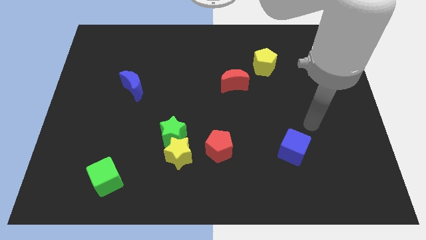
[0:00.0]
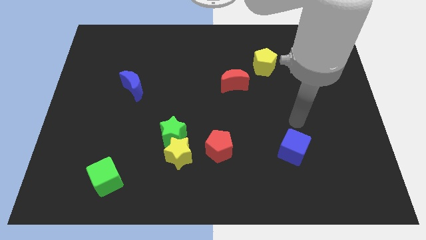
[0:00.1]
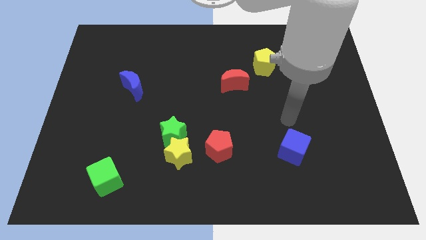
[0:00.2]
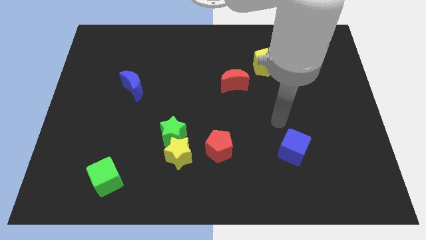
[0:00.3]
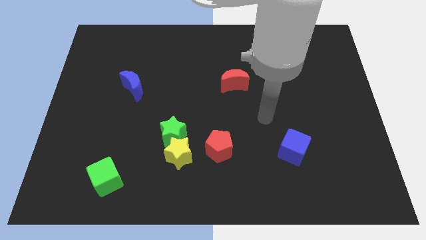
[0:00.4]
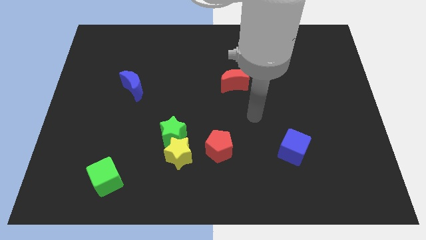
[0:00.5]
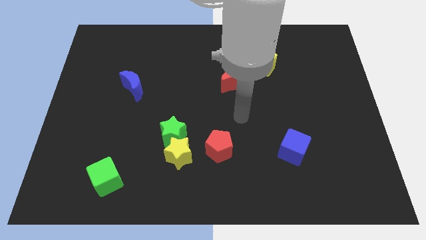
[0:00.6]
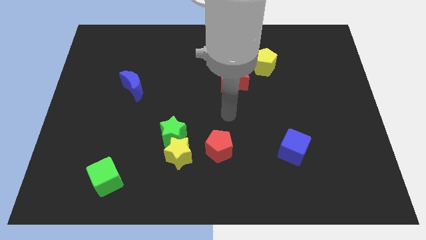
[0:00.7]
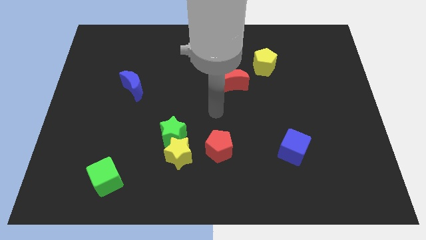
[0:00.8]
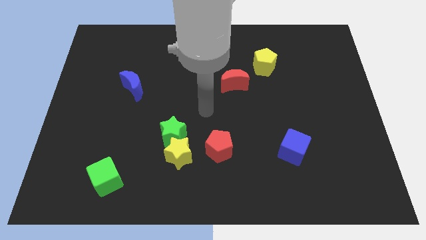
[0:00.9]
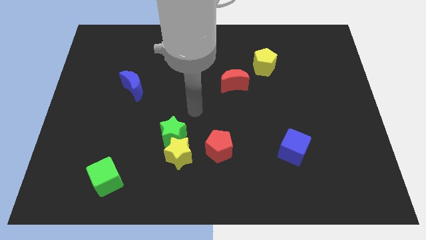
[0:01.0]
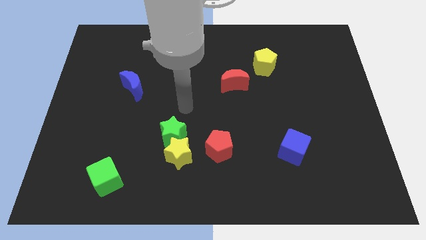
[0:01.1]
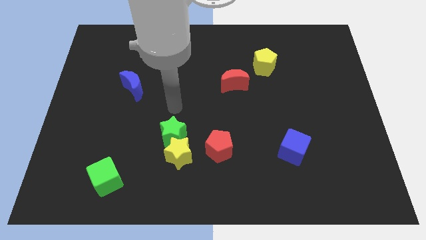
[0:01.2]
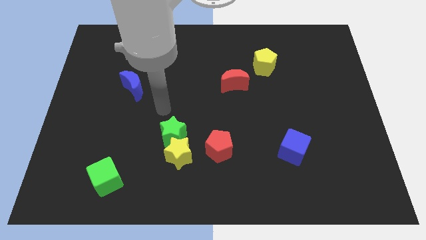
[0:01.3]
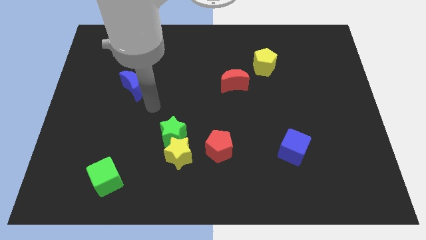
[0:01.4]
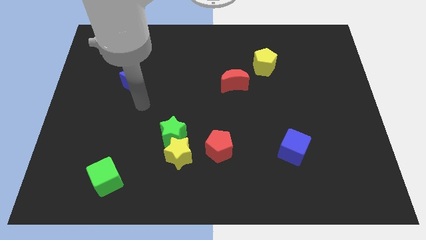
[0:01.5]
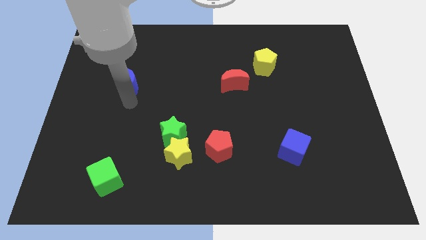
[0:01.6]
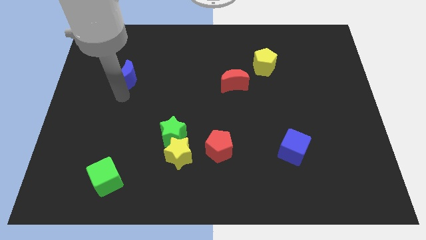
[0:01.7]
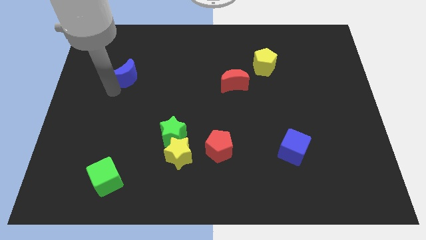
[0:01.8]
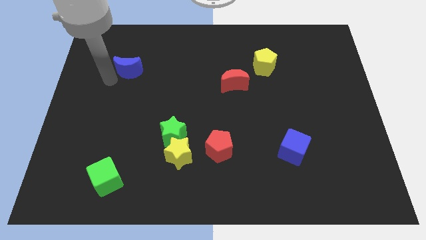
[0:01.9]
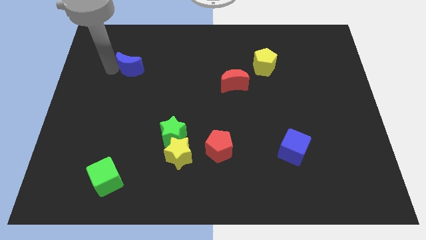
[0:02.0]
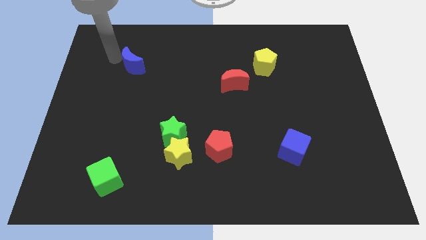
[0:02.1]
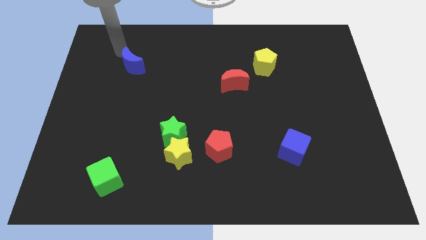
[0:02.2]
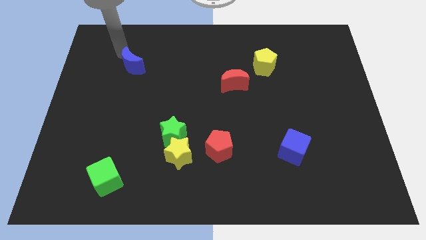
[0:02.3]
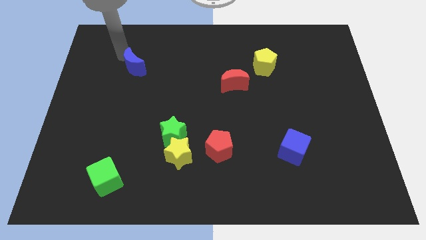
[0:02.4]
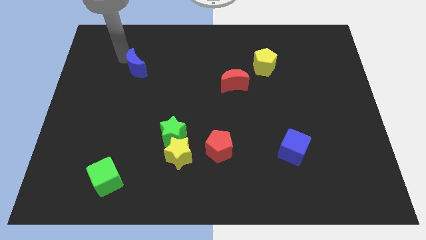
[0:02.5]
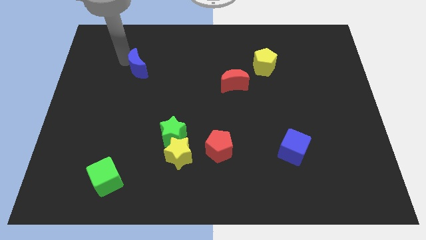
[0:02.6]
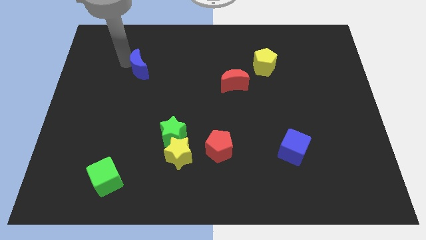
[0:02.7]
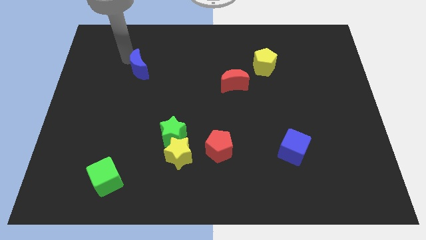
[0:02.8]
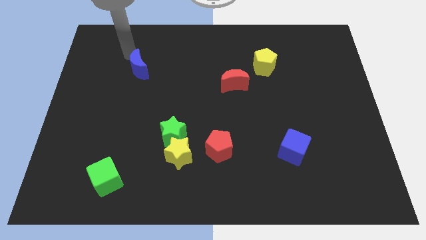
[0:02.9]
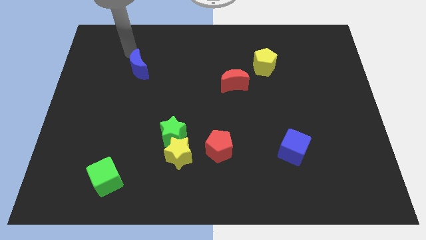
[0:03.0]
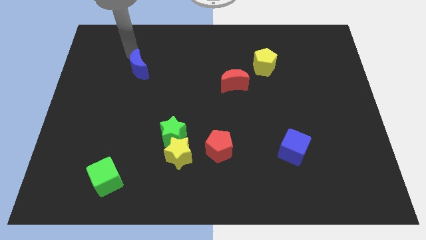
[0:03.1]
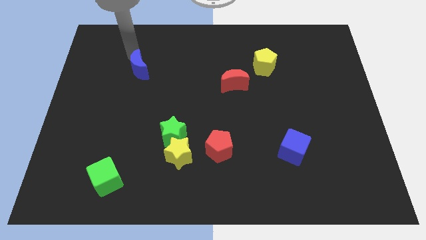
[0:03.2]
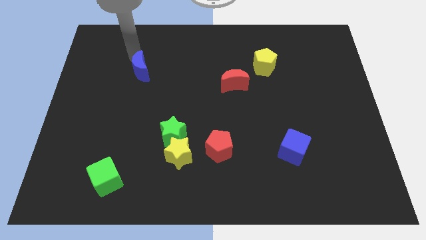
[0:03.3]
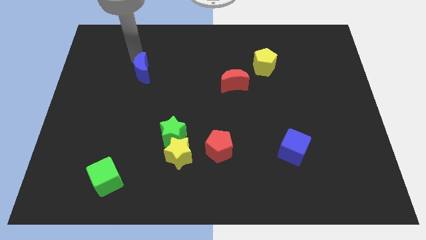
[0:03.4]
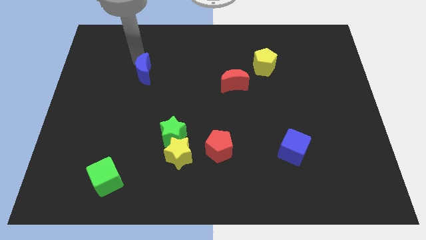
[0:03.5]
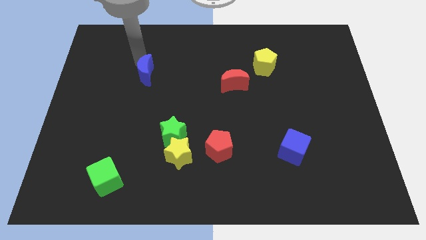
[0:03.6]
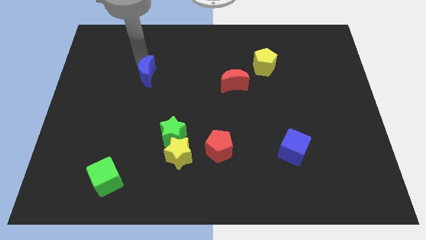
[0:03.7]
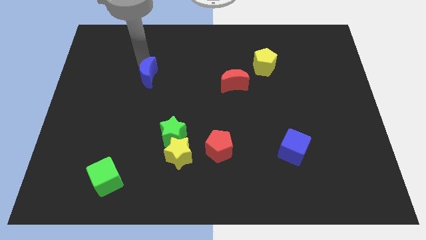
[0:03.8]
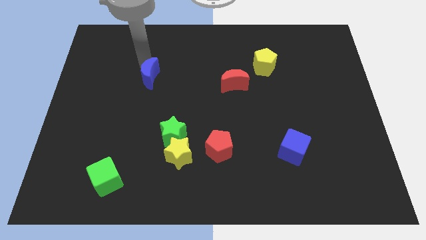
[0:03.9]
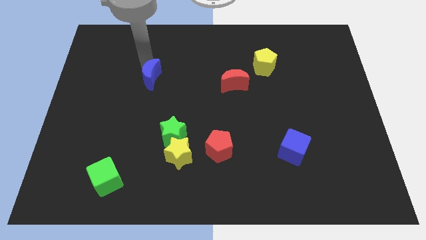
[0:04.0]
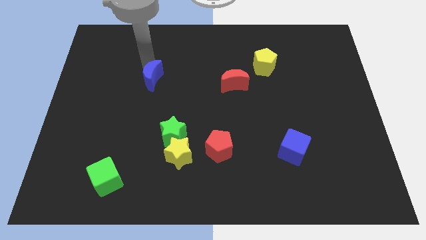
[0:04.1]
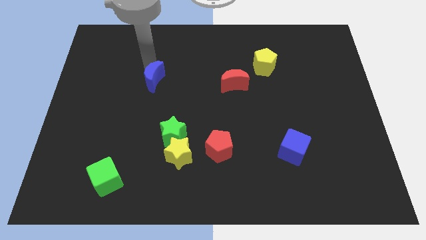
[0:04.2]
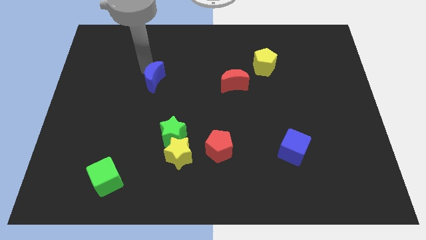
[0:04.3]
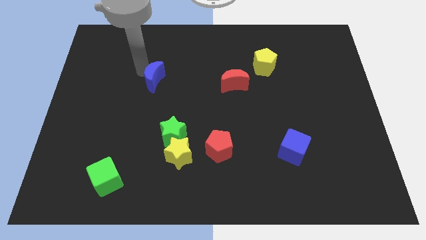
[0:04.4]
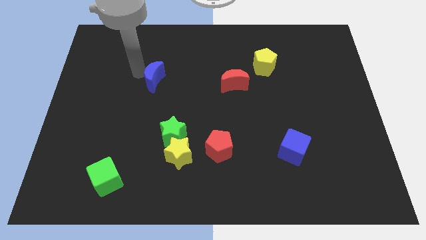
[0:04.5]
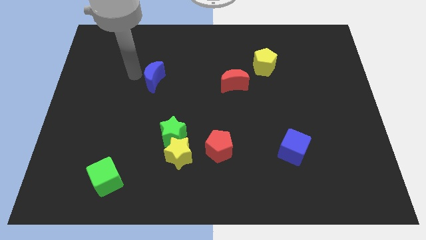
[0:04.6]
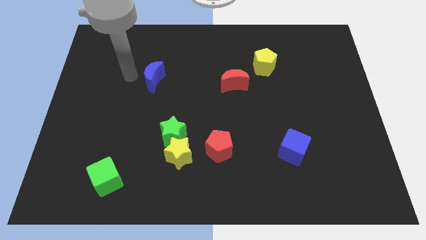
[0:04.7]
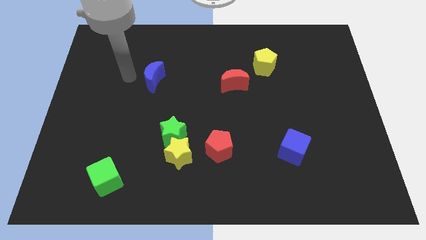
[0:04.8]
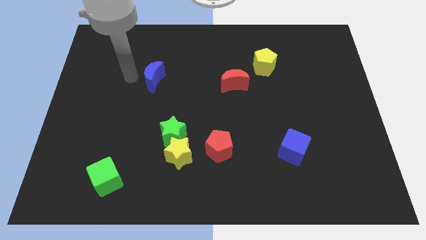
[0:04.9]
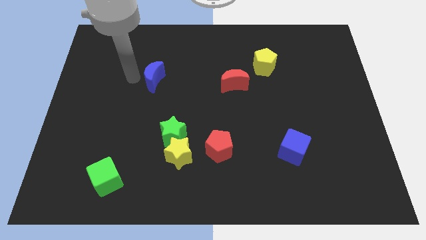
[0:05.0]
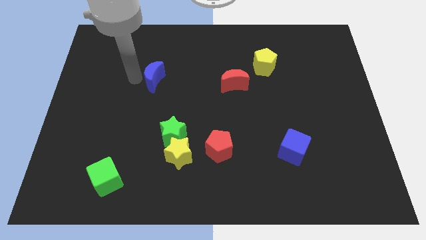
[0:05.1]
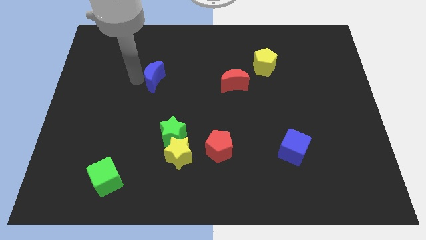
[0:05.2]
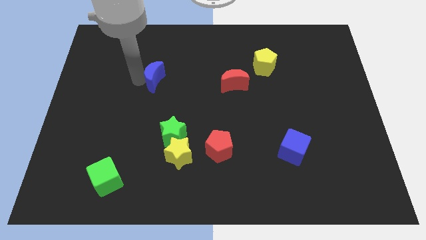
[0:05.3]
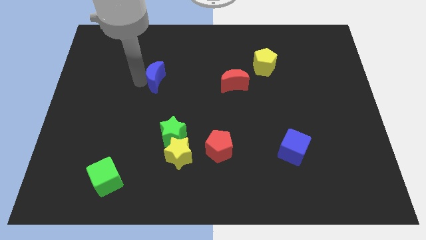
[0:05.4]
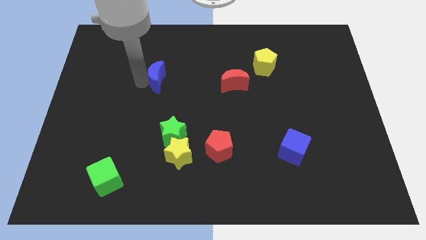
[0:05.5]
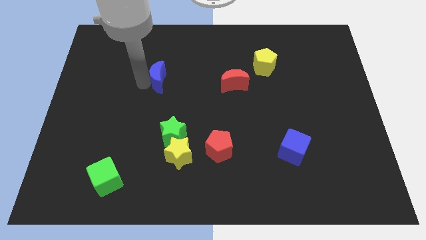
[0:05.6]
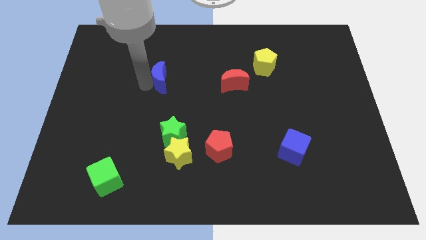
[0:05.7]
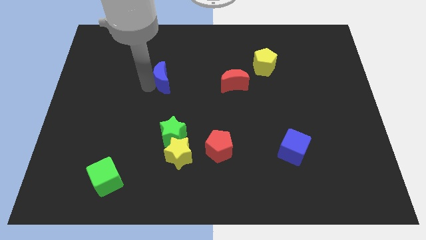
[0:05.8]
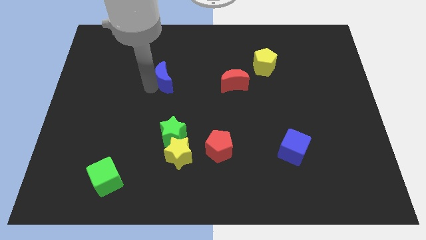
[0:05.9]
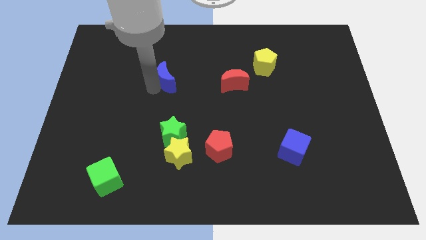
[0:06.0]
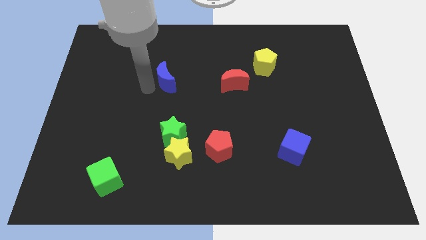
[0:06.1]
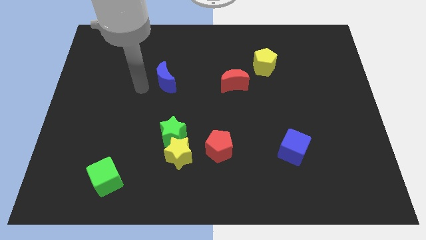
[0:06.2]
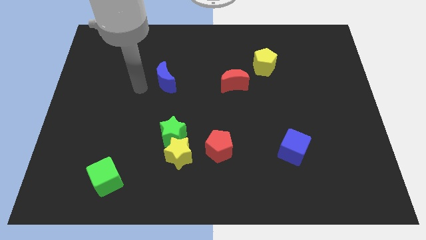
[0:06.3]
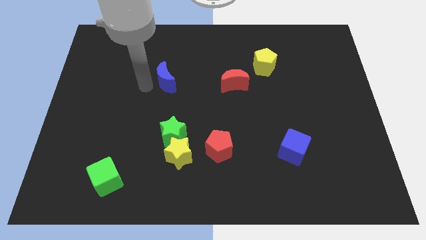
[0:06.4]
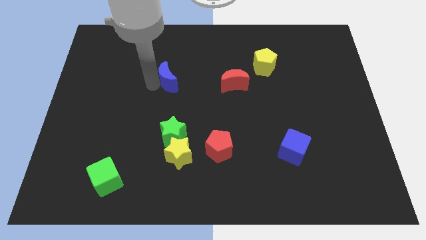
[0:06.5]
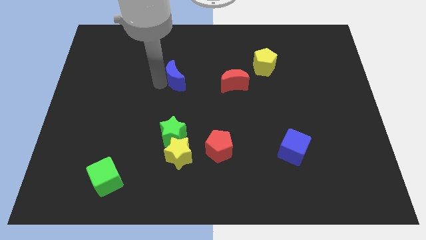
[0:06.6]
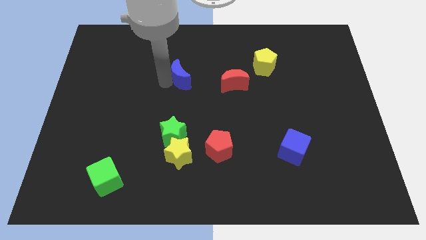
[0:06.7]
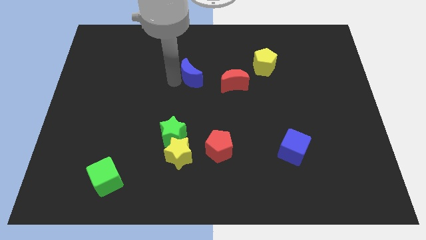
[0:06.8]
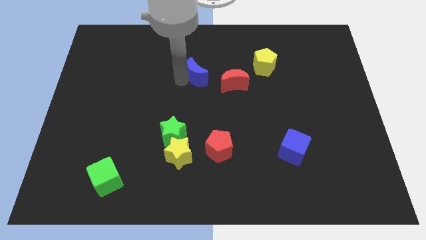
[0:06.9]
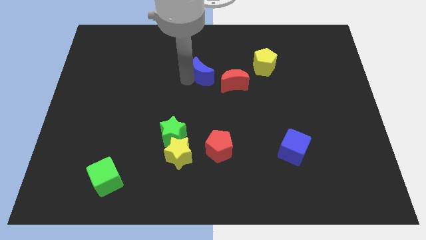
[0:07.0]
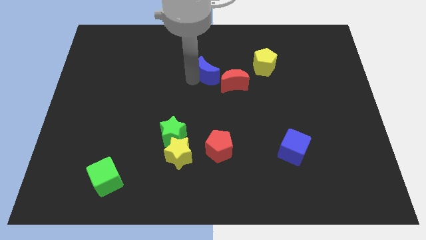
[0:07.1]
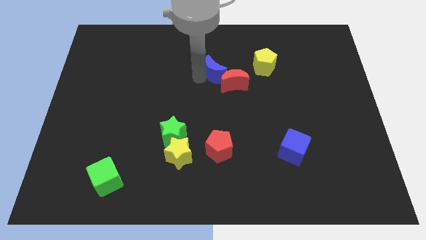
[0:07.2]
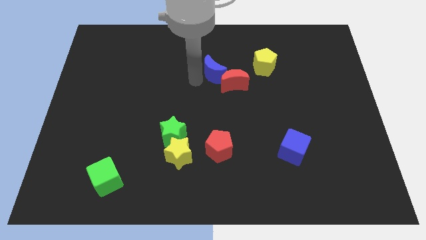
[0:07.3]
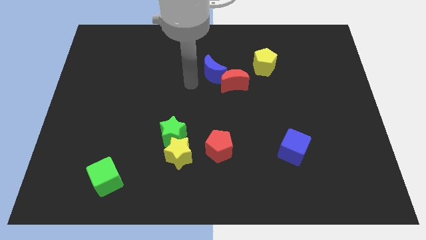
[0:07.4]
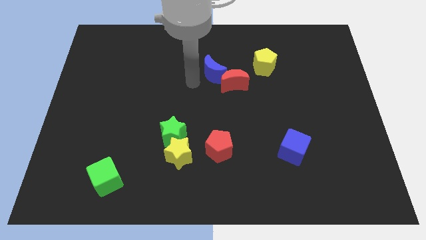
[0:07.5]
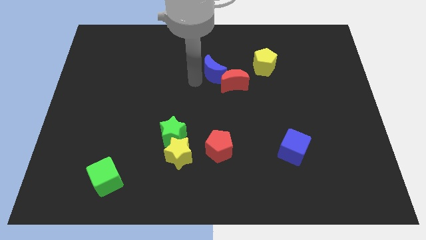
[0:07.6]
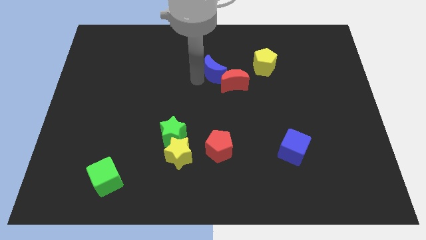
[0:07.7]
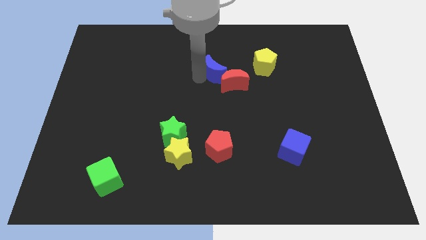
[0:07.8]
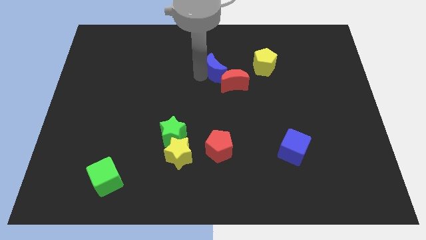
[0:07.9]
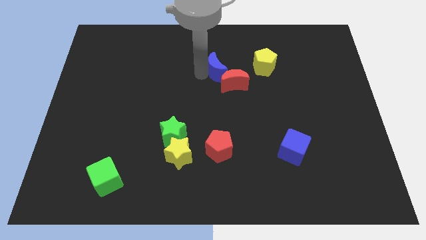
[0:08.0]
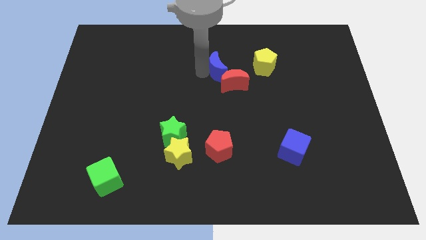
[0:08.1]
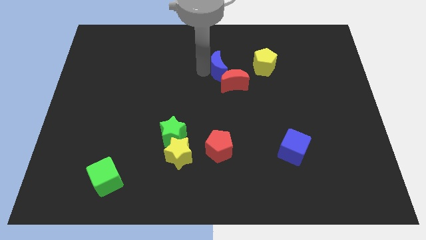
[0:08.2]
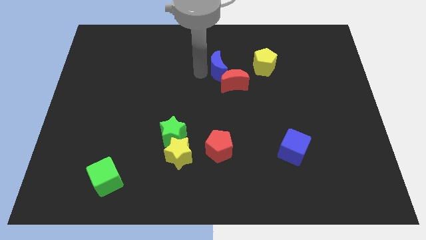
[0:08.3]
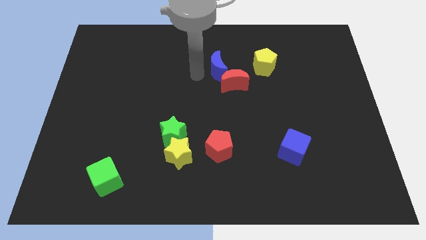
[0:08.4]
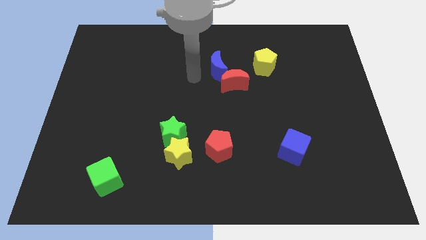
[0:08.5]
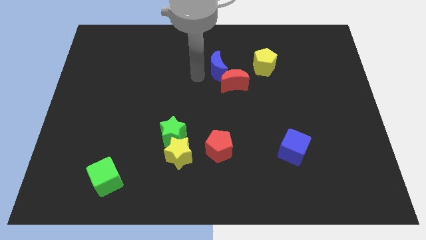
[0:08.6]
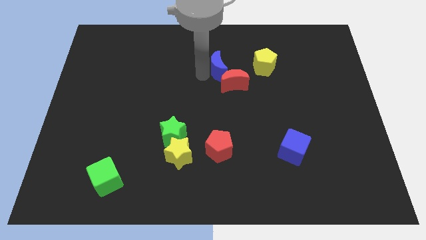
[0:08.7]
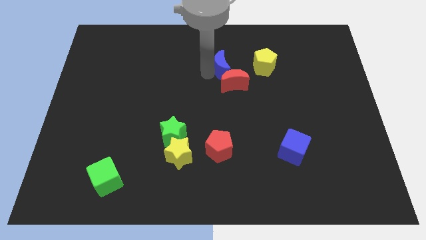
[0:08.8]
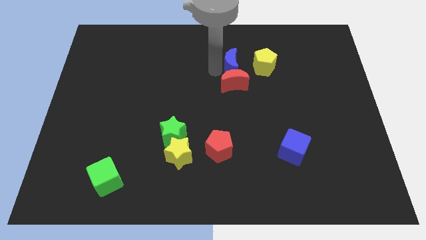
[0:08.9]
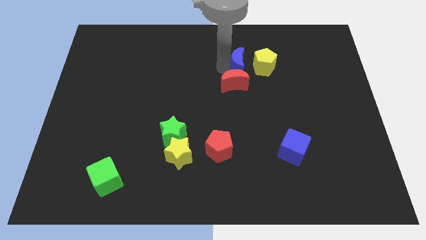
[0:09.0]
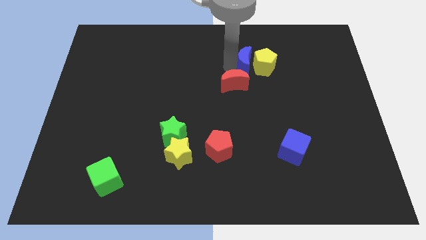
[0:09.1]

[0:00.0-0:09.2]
slide the blue moon towards the yellow pentagon
